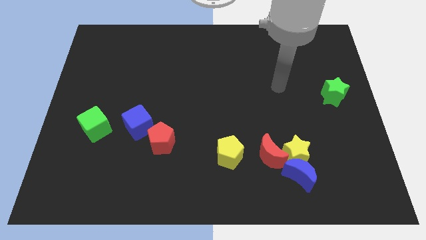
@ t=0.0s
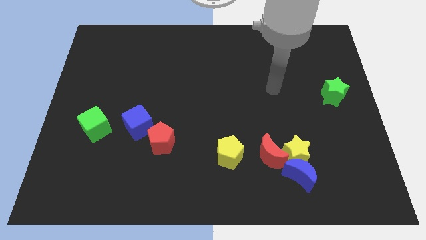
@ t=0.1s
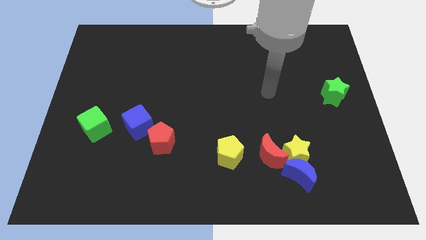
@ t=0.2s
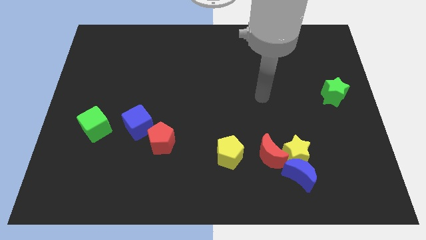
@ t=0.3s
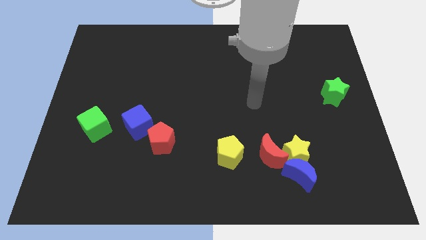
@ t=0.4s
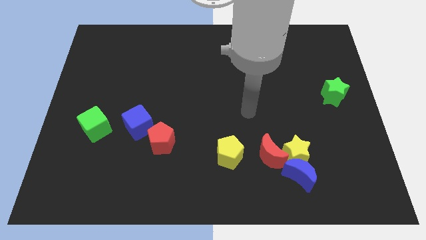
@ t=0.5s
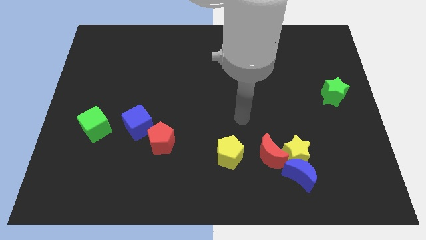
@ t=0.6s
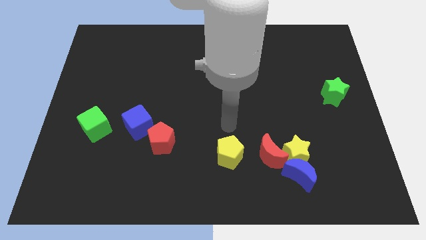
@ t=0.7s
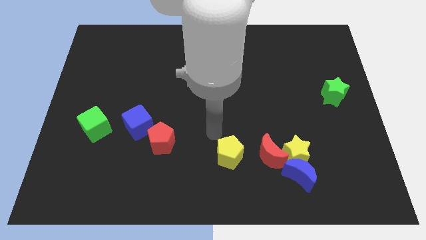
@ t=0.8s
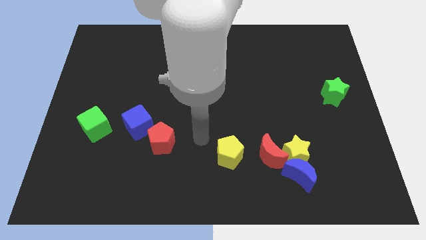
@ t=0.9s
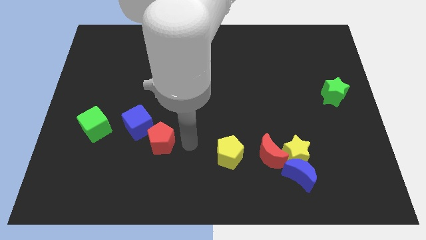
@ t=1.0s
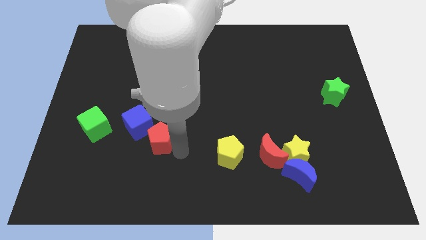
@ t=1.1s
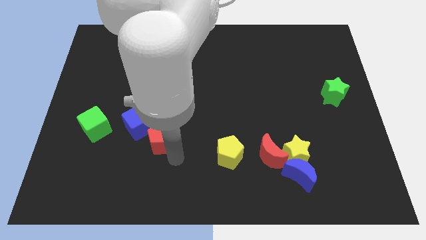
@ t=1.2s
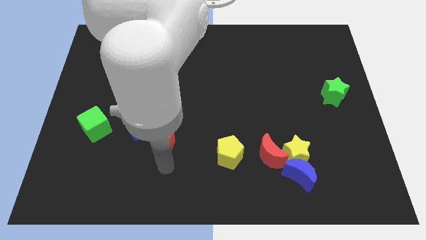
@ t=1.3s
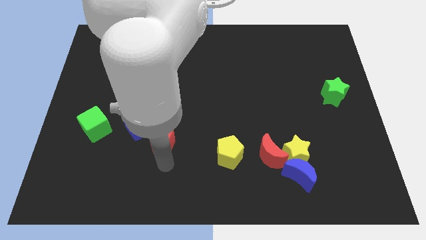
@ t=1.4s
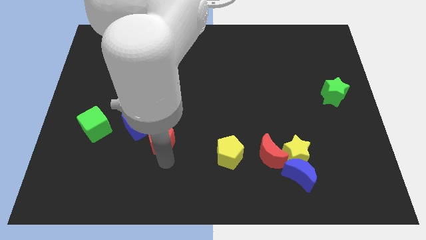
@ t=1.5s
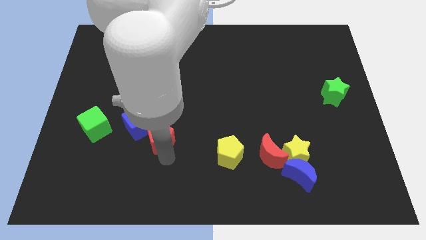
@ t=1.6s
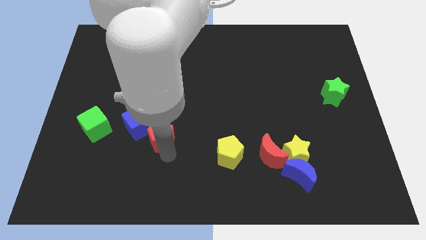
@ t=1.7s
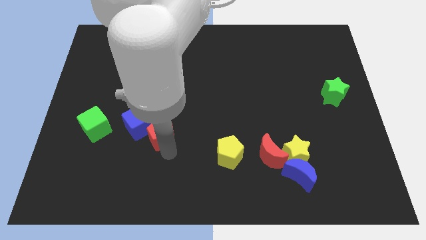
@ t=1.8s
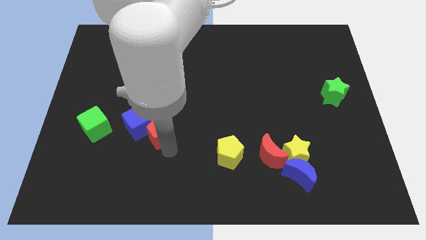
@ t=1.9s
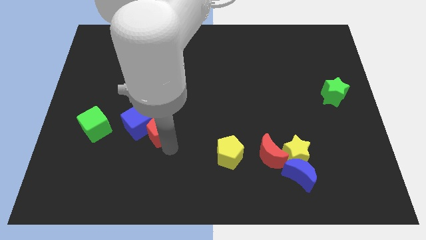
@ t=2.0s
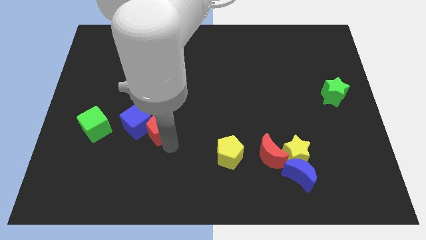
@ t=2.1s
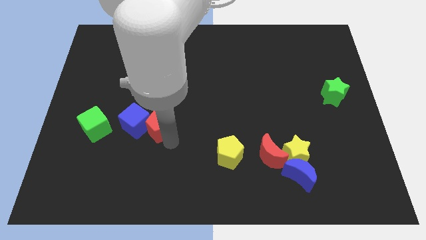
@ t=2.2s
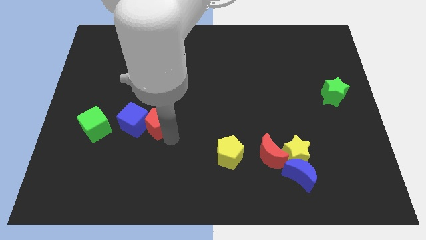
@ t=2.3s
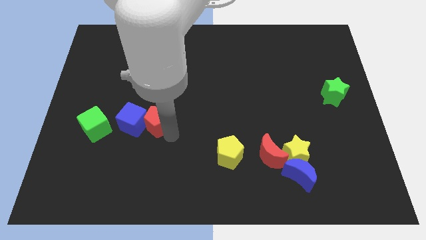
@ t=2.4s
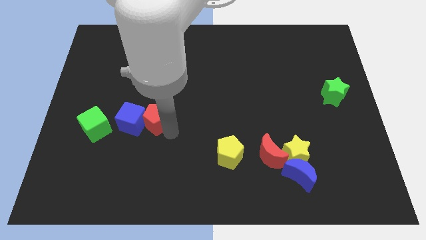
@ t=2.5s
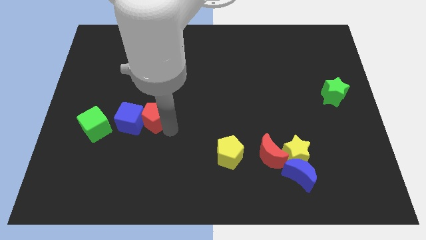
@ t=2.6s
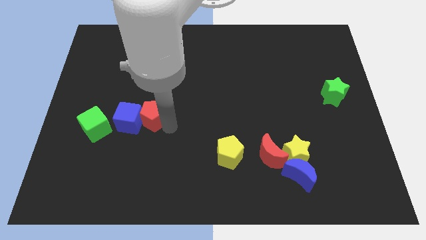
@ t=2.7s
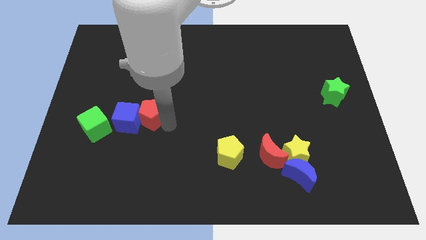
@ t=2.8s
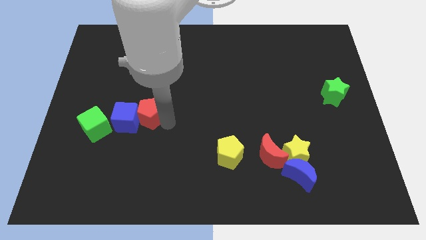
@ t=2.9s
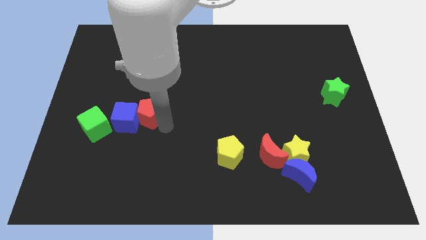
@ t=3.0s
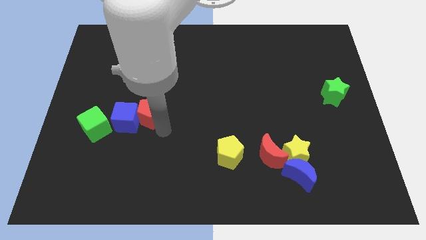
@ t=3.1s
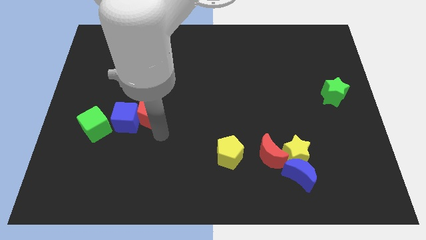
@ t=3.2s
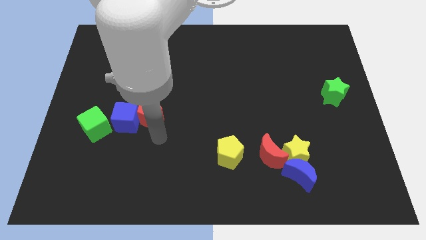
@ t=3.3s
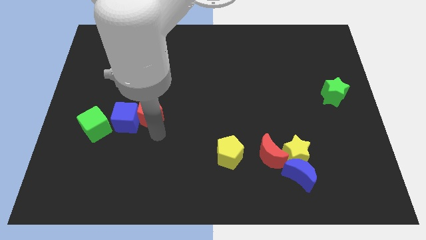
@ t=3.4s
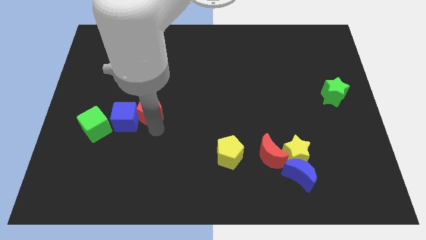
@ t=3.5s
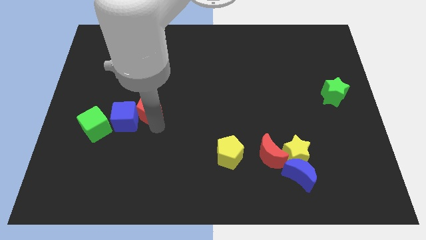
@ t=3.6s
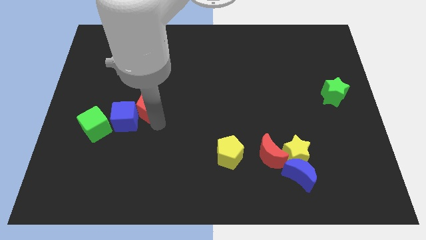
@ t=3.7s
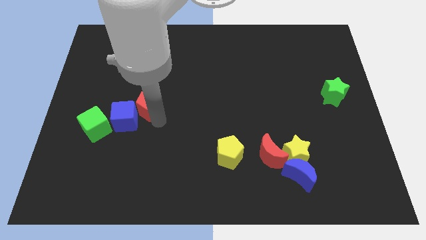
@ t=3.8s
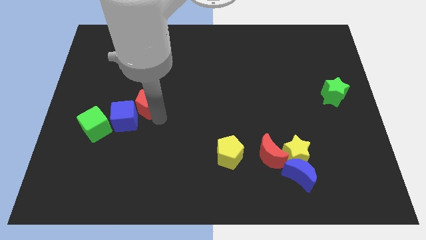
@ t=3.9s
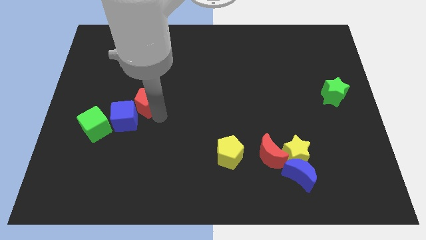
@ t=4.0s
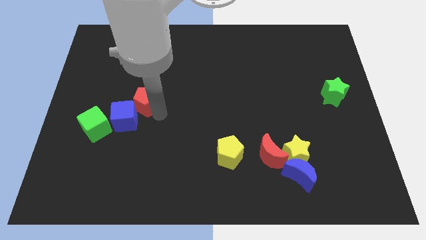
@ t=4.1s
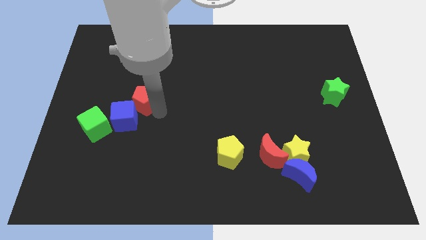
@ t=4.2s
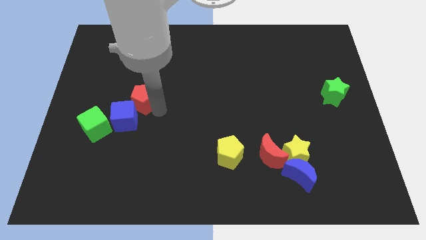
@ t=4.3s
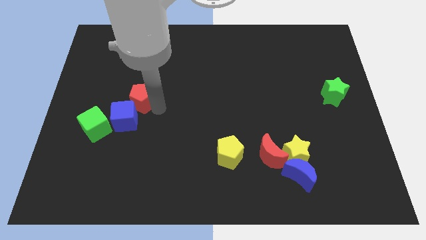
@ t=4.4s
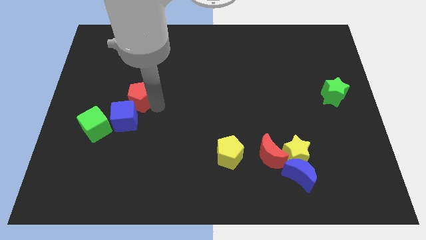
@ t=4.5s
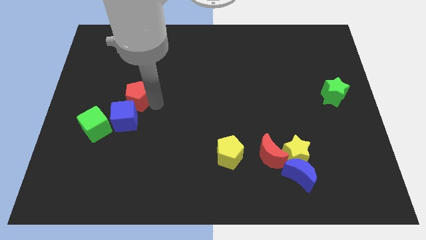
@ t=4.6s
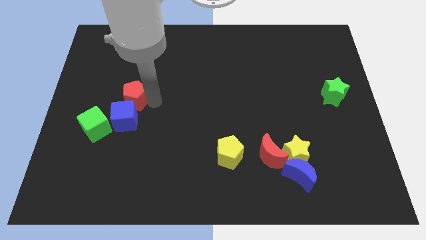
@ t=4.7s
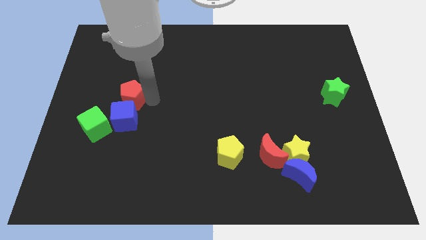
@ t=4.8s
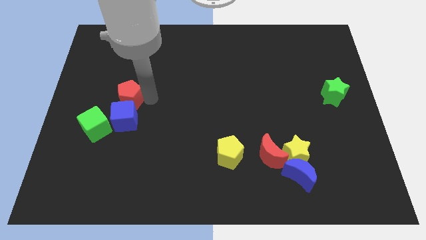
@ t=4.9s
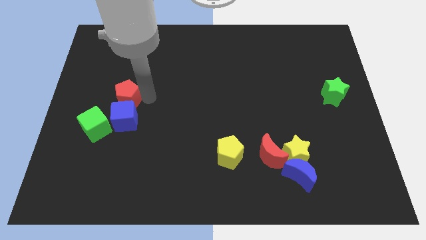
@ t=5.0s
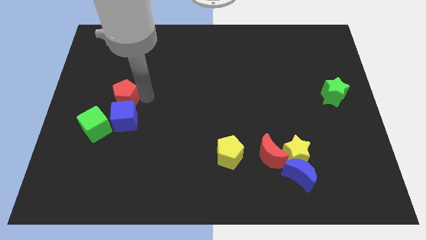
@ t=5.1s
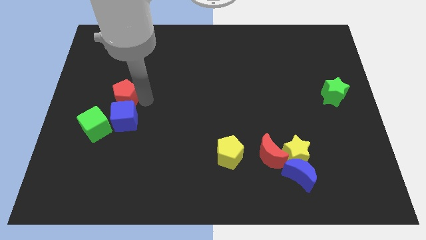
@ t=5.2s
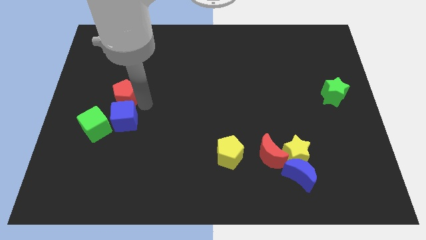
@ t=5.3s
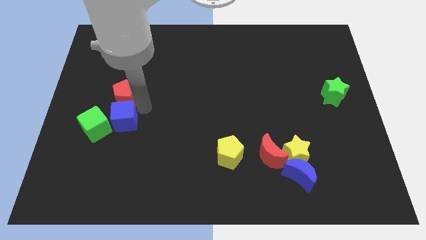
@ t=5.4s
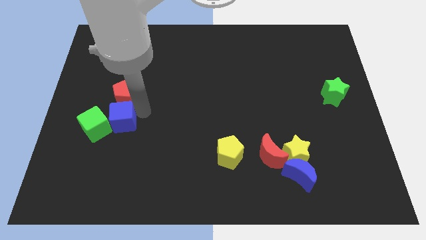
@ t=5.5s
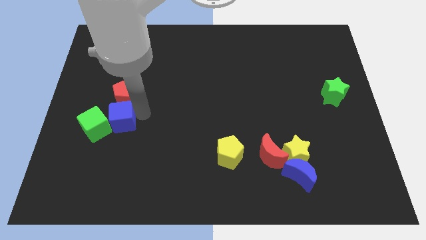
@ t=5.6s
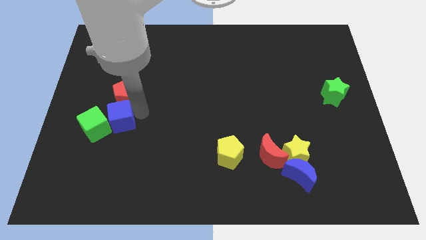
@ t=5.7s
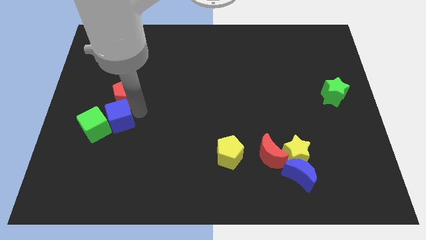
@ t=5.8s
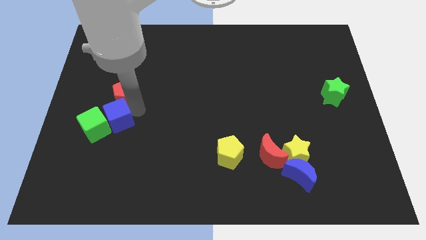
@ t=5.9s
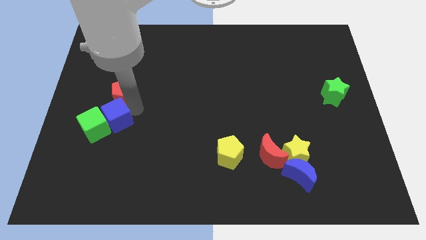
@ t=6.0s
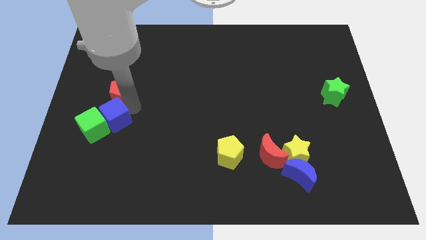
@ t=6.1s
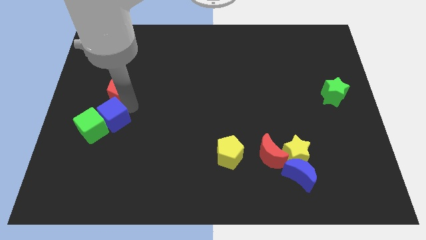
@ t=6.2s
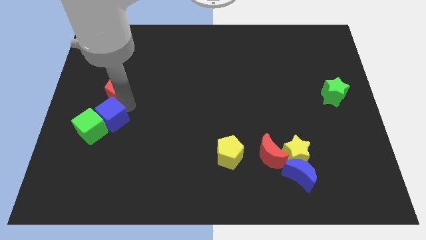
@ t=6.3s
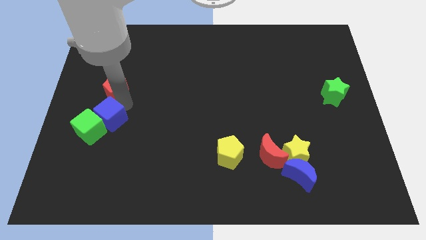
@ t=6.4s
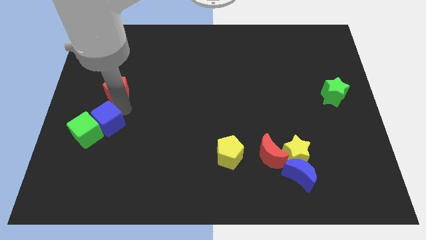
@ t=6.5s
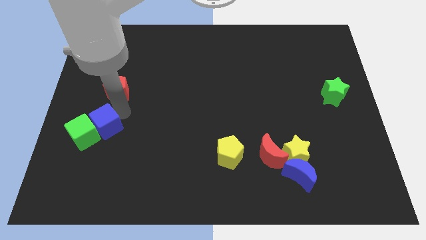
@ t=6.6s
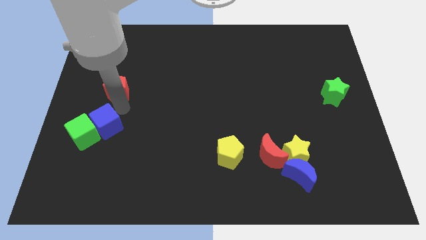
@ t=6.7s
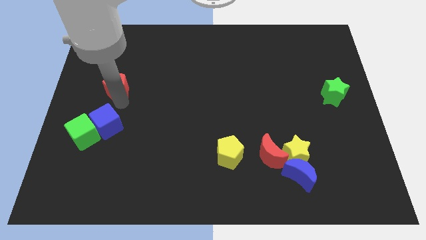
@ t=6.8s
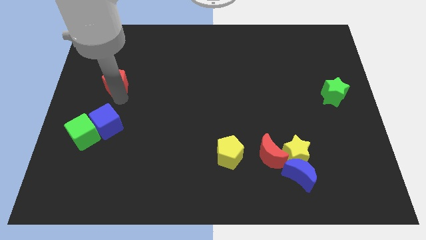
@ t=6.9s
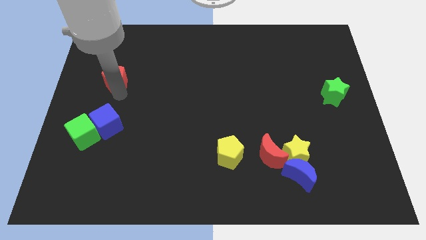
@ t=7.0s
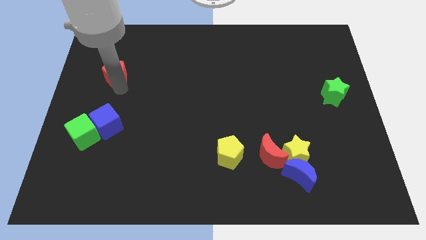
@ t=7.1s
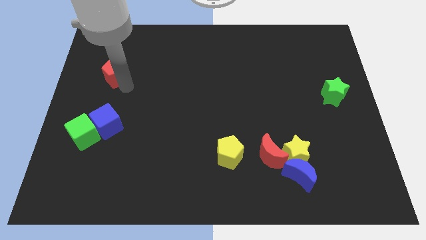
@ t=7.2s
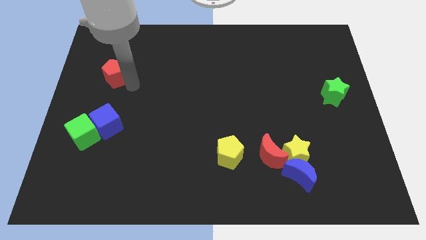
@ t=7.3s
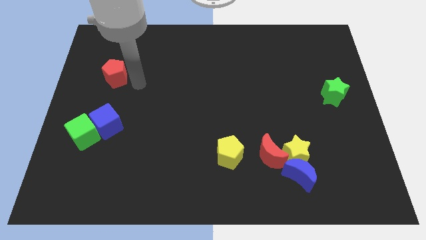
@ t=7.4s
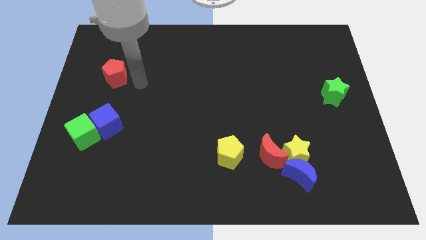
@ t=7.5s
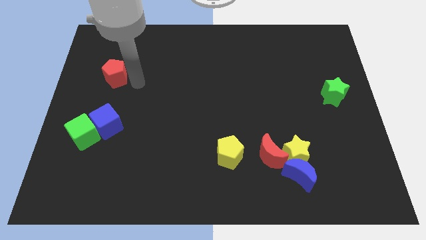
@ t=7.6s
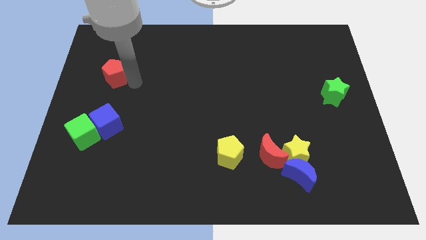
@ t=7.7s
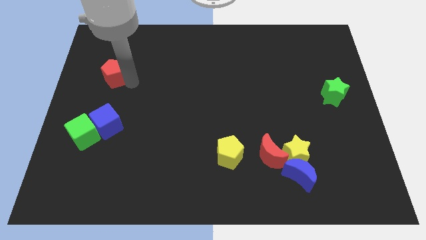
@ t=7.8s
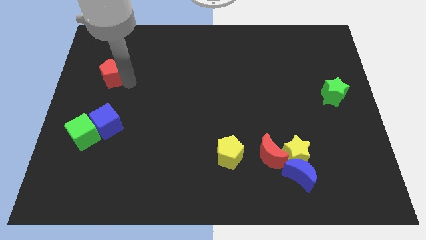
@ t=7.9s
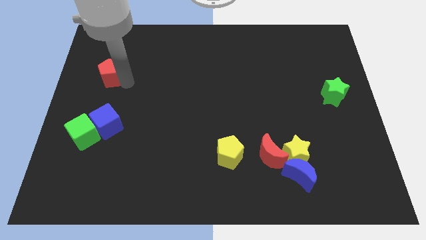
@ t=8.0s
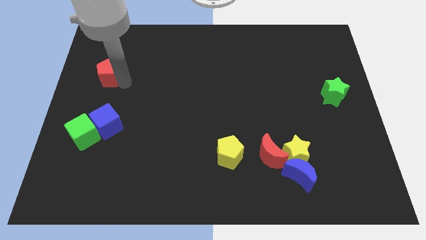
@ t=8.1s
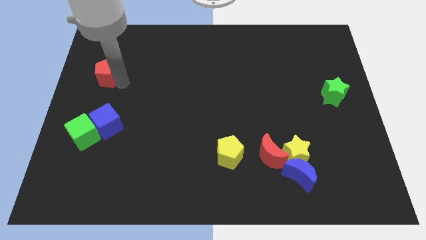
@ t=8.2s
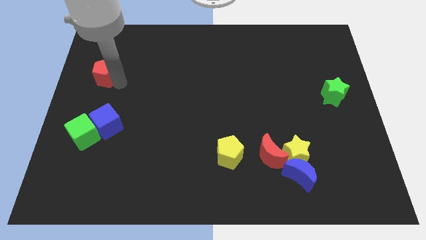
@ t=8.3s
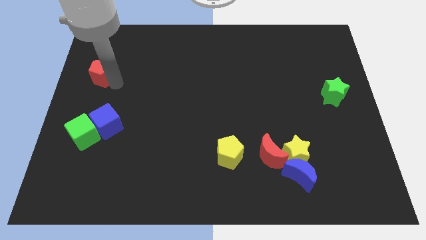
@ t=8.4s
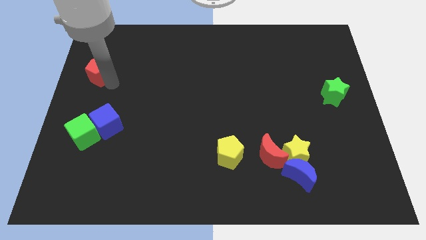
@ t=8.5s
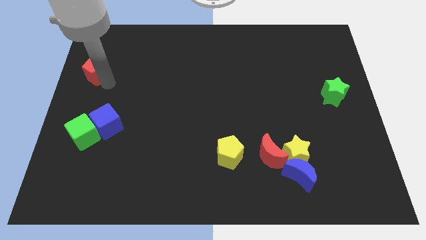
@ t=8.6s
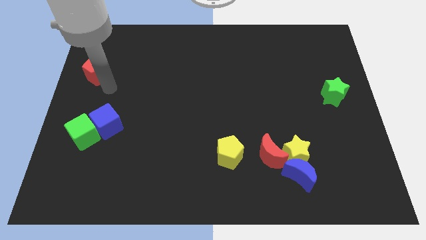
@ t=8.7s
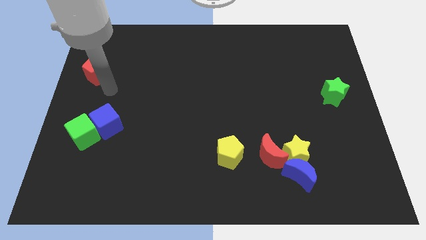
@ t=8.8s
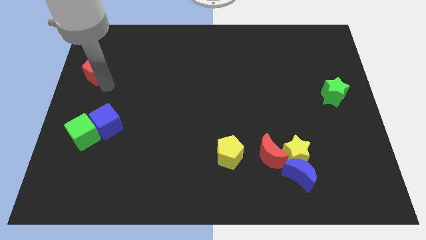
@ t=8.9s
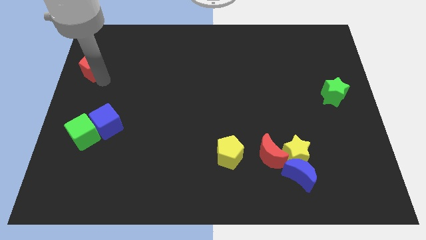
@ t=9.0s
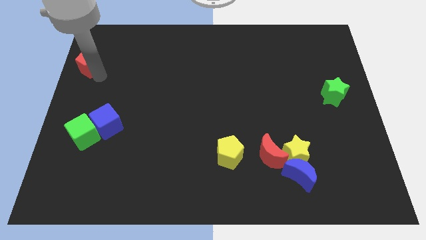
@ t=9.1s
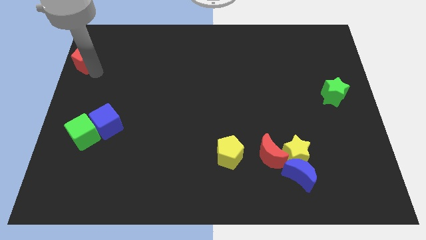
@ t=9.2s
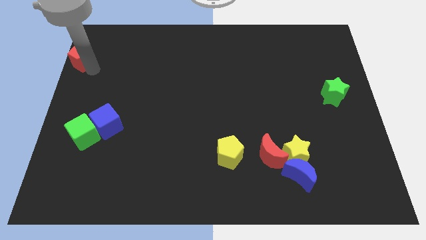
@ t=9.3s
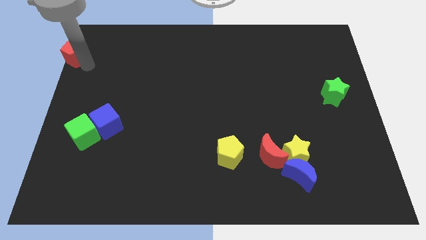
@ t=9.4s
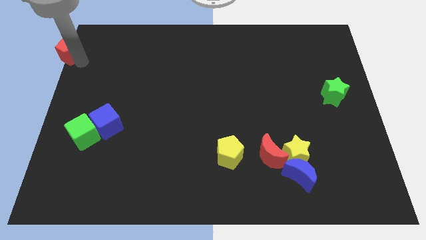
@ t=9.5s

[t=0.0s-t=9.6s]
put the red pentagon to the top left
